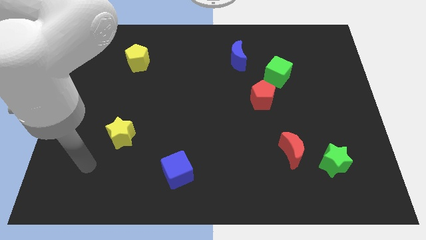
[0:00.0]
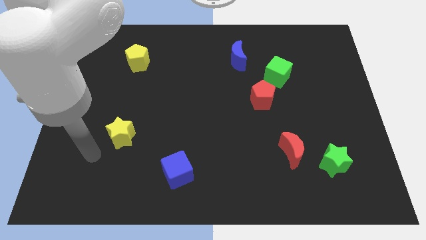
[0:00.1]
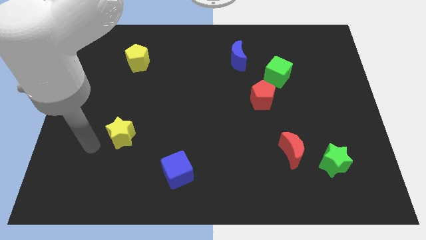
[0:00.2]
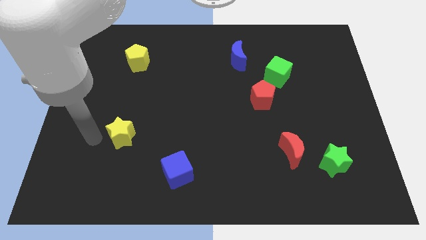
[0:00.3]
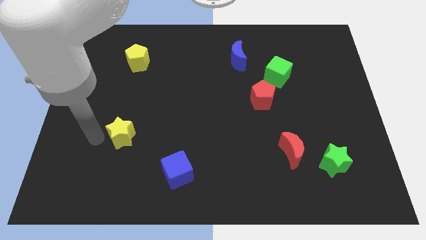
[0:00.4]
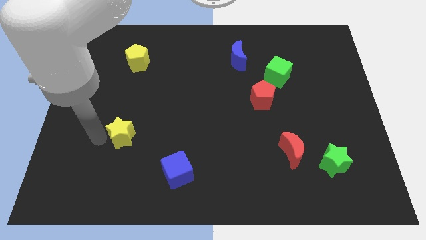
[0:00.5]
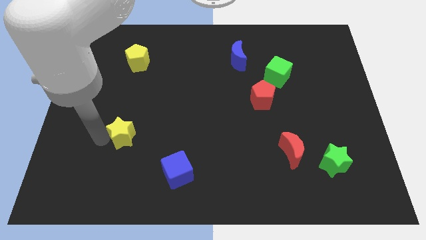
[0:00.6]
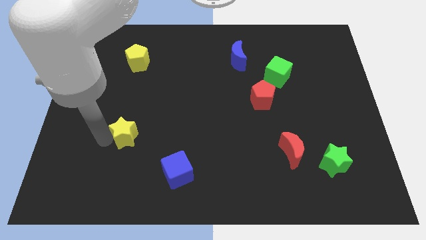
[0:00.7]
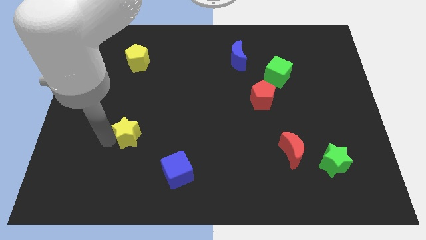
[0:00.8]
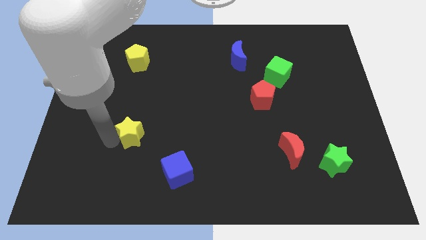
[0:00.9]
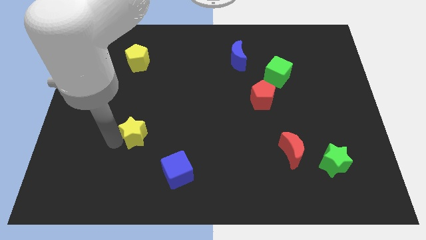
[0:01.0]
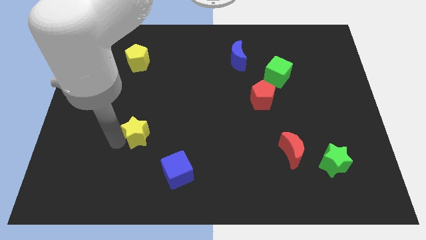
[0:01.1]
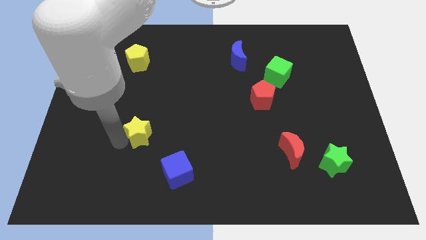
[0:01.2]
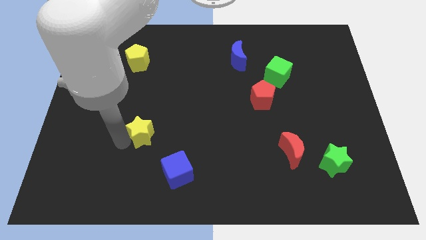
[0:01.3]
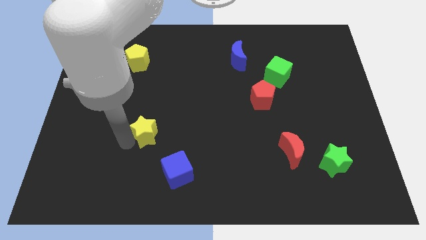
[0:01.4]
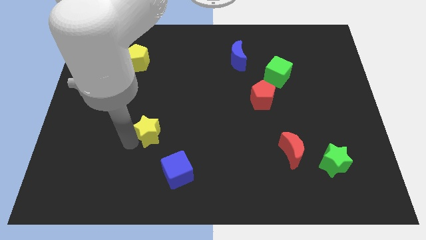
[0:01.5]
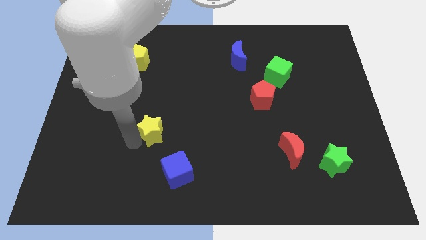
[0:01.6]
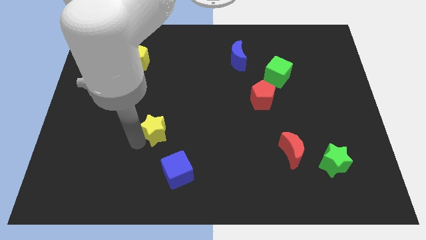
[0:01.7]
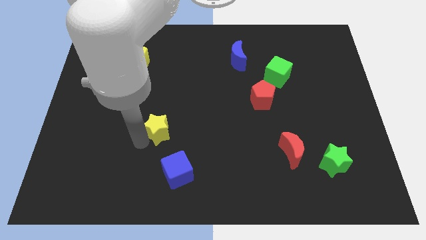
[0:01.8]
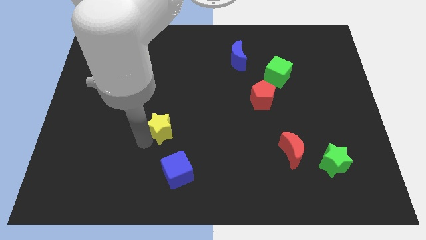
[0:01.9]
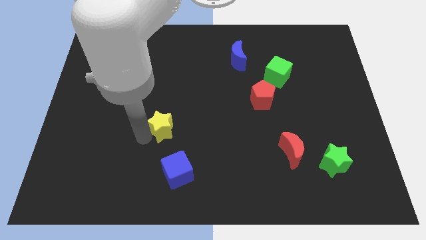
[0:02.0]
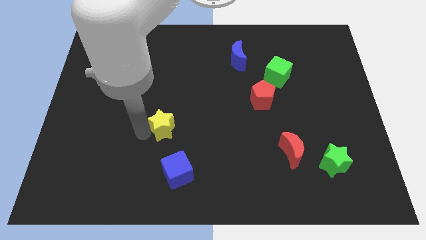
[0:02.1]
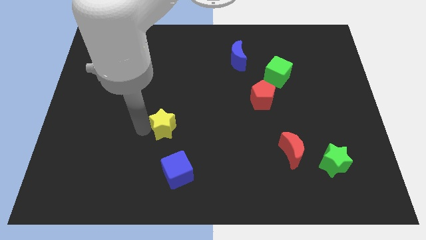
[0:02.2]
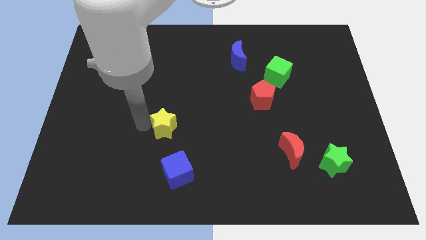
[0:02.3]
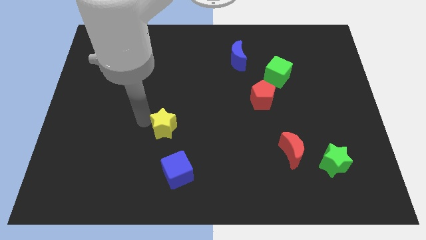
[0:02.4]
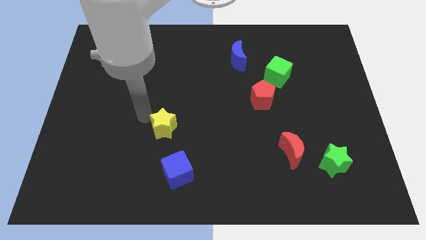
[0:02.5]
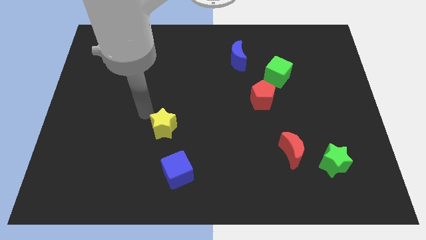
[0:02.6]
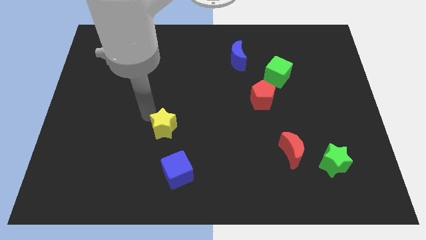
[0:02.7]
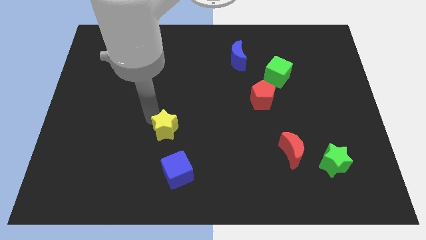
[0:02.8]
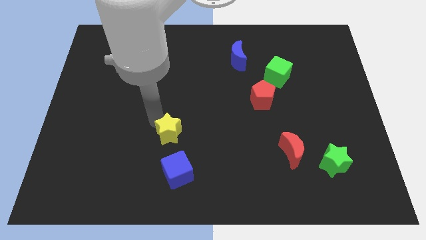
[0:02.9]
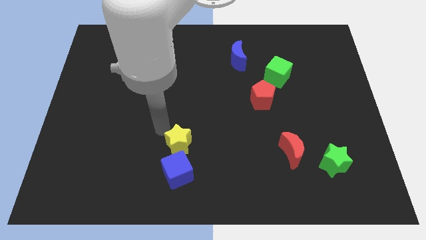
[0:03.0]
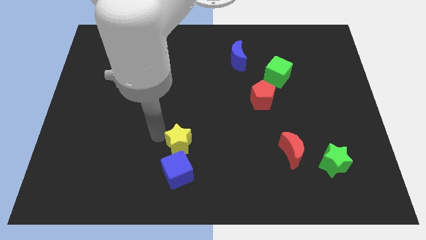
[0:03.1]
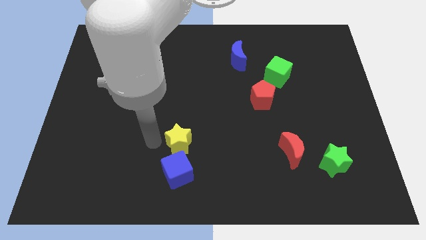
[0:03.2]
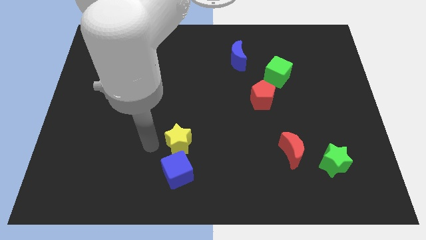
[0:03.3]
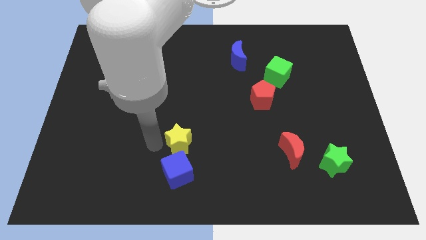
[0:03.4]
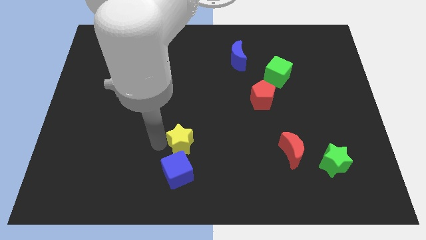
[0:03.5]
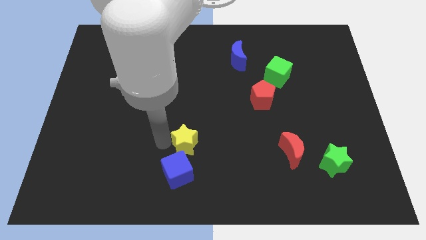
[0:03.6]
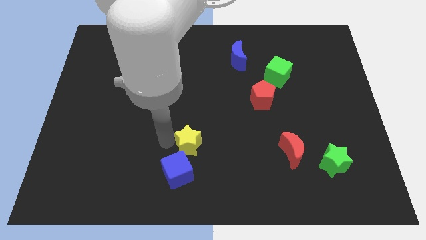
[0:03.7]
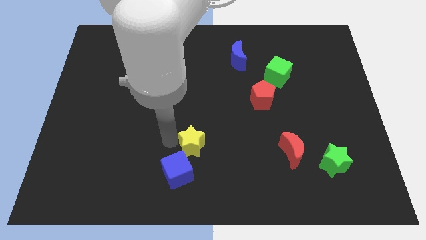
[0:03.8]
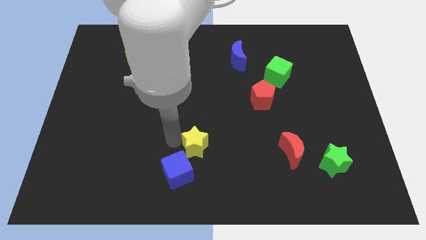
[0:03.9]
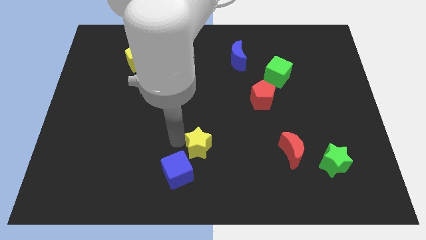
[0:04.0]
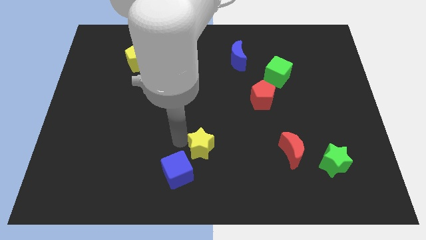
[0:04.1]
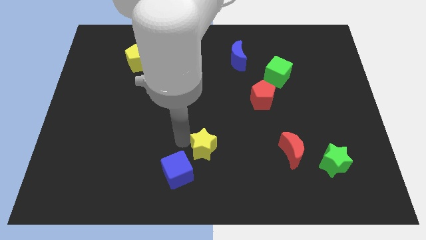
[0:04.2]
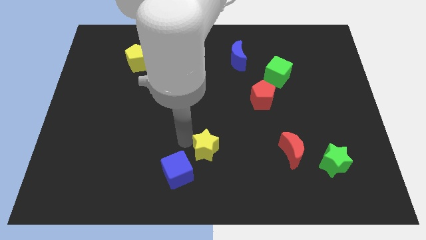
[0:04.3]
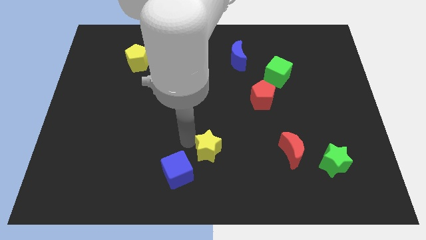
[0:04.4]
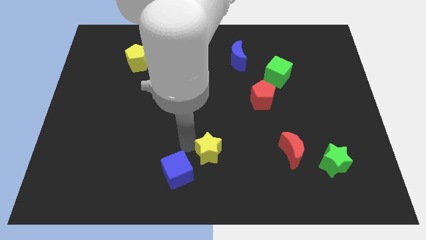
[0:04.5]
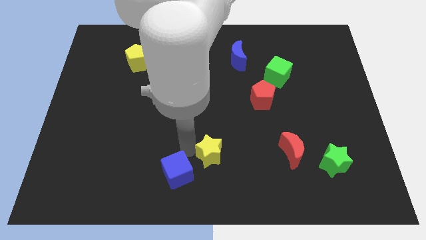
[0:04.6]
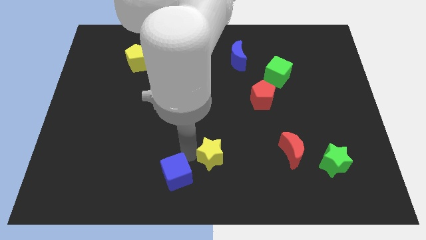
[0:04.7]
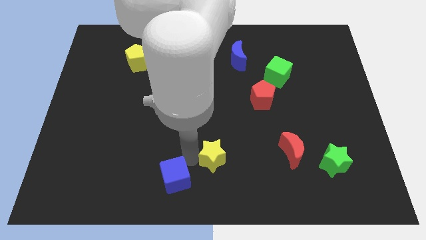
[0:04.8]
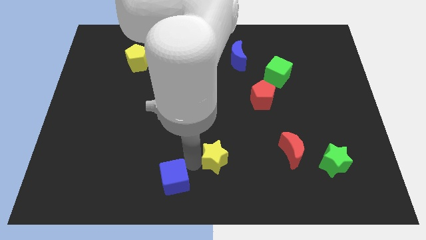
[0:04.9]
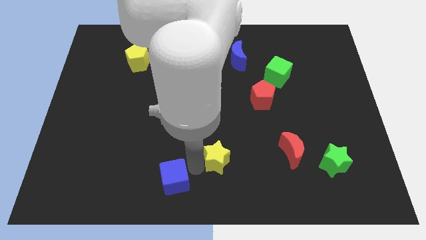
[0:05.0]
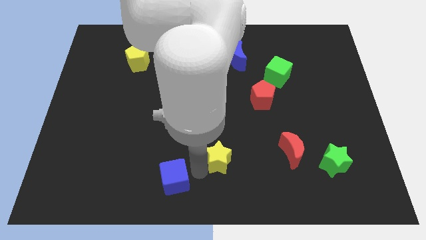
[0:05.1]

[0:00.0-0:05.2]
slide the yellow star to the right

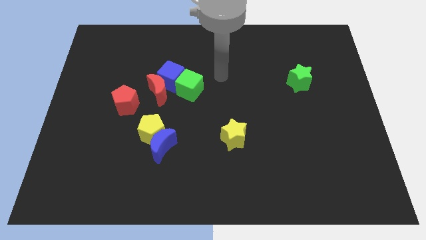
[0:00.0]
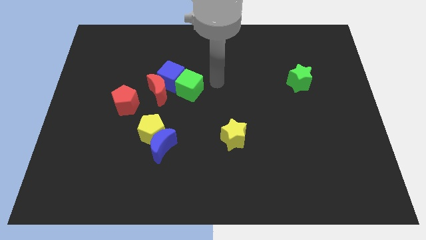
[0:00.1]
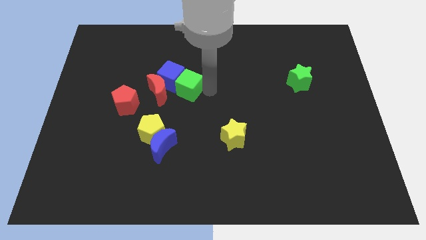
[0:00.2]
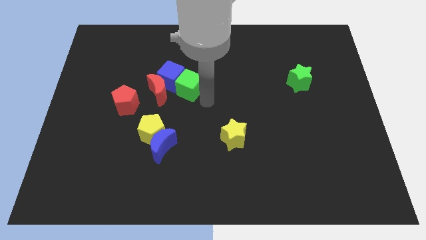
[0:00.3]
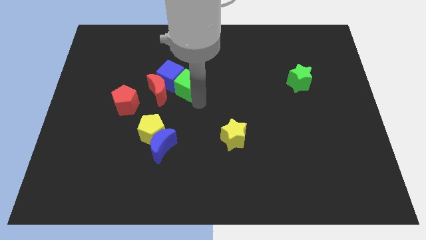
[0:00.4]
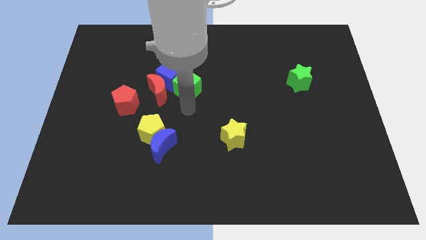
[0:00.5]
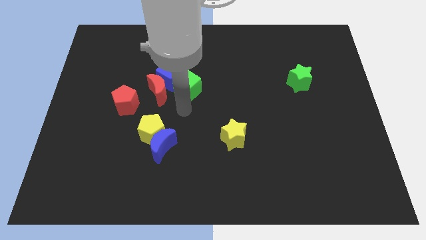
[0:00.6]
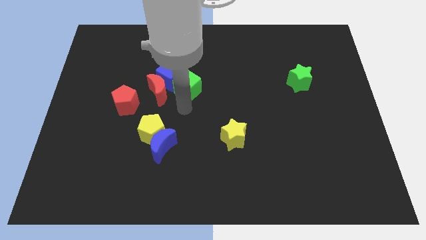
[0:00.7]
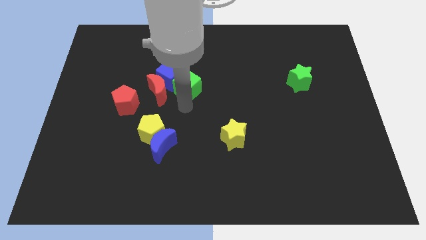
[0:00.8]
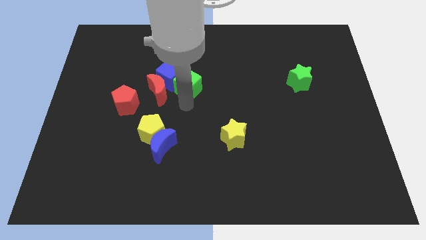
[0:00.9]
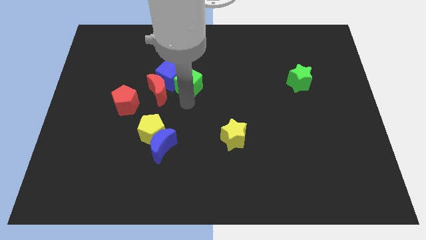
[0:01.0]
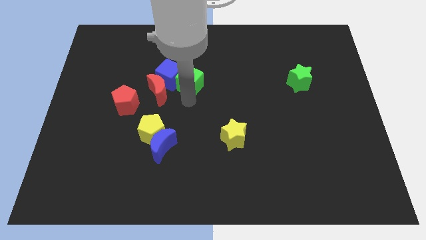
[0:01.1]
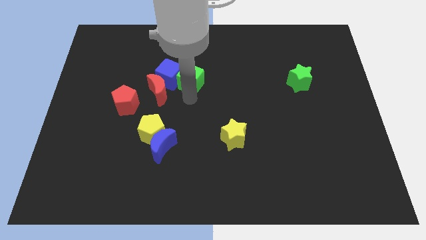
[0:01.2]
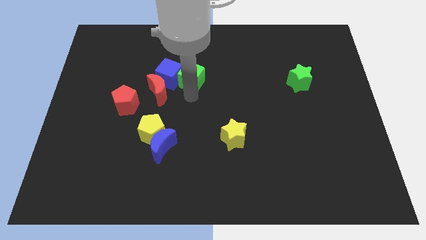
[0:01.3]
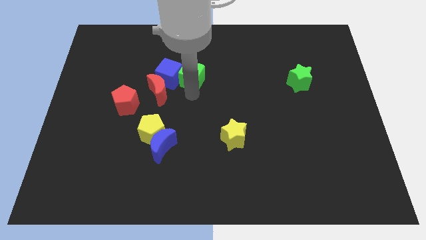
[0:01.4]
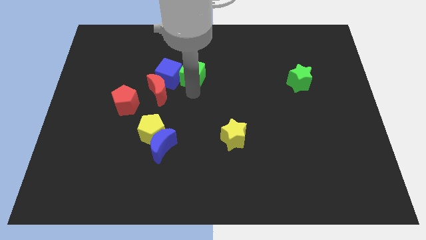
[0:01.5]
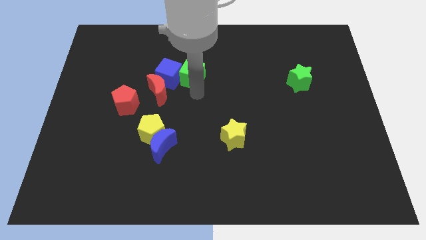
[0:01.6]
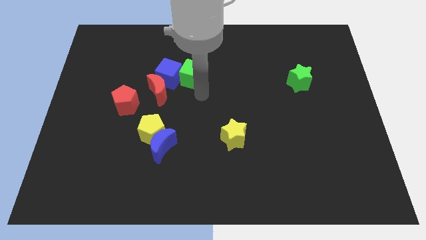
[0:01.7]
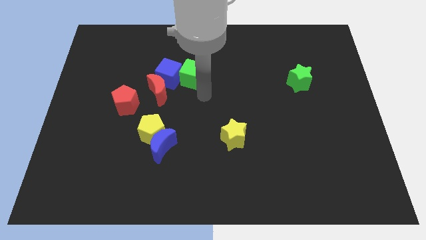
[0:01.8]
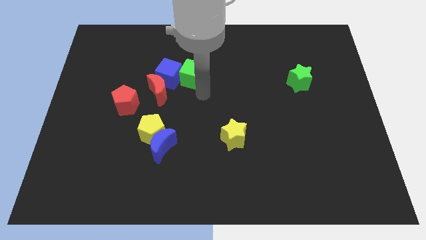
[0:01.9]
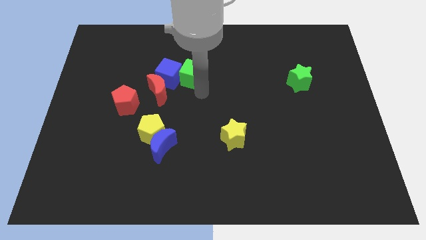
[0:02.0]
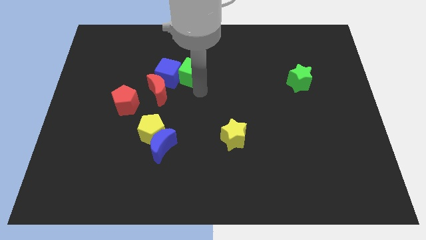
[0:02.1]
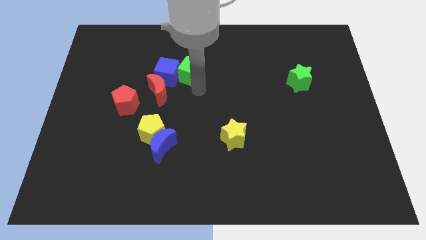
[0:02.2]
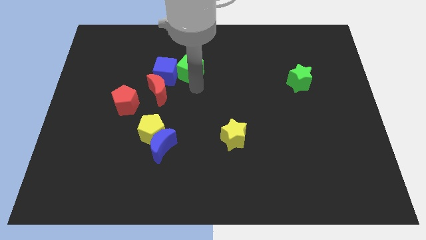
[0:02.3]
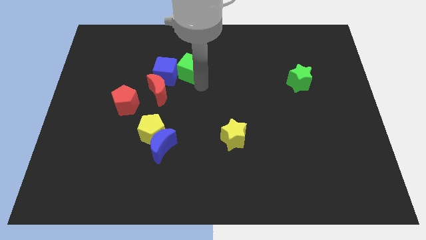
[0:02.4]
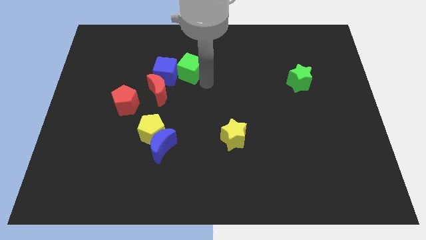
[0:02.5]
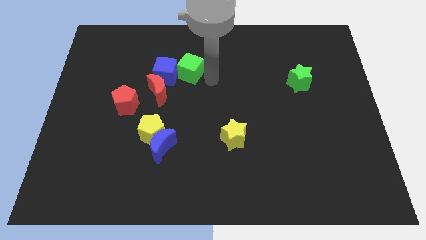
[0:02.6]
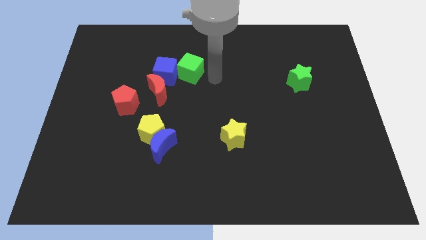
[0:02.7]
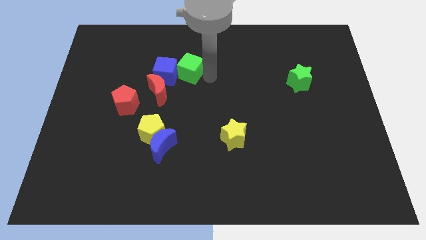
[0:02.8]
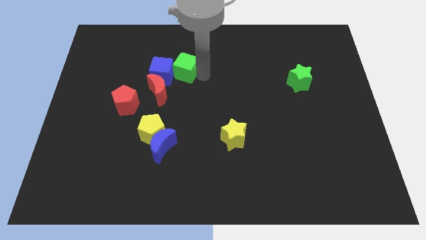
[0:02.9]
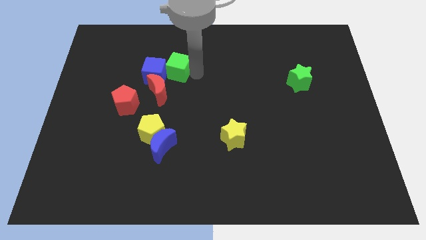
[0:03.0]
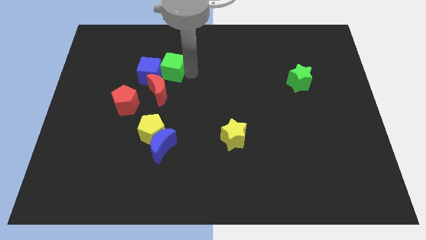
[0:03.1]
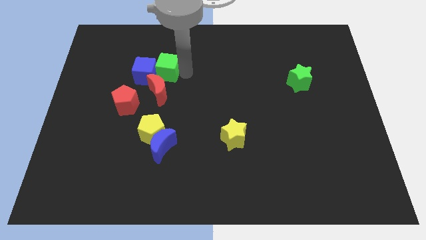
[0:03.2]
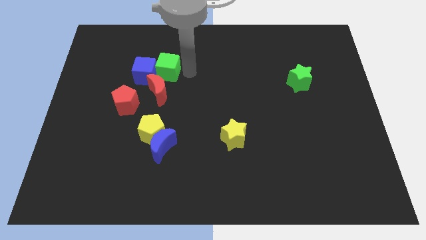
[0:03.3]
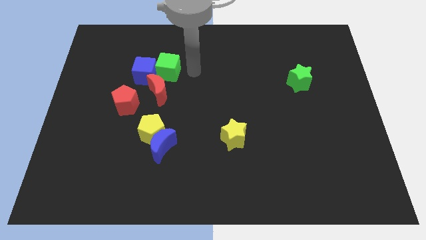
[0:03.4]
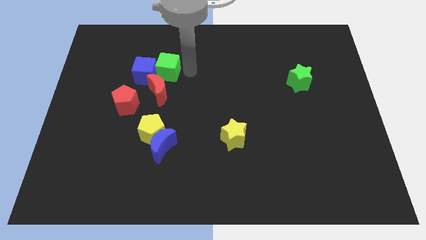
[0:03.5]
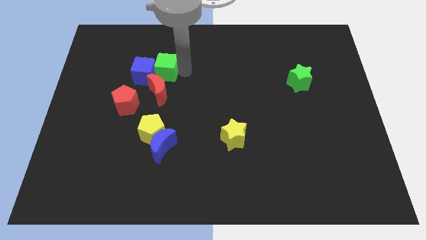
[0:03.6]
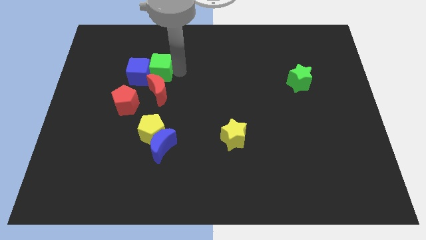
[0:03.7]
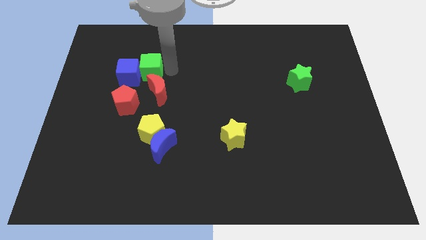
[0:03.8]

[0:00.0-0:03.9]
slightly push the green cube to the left
